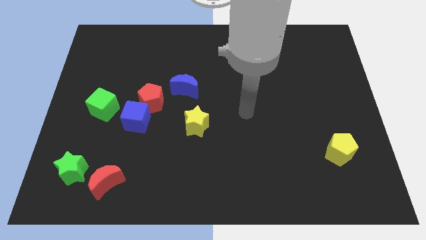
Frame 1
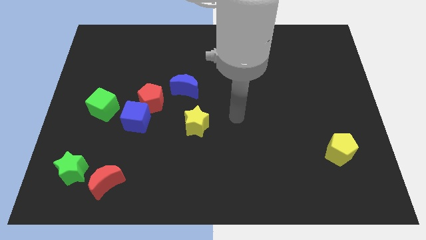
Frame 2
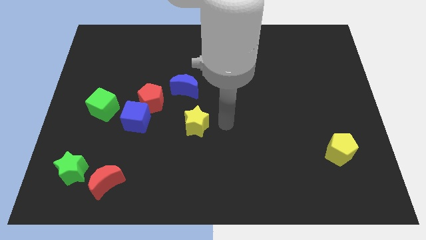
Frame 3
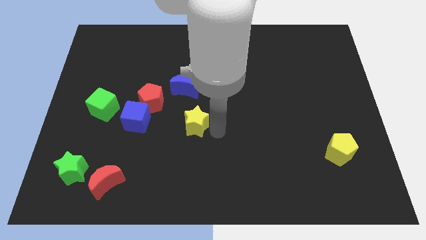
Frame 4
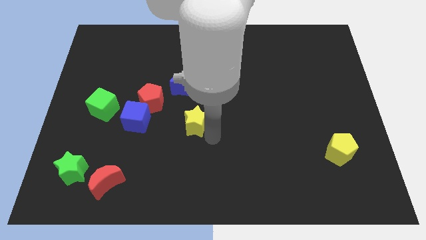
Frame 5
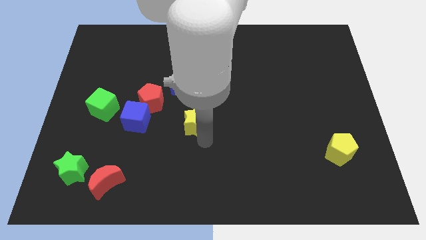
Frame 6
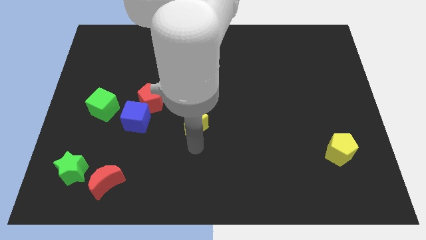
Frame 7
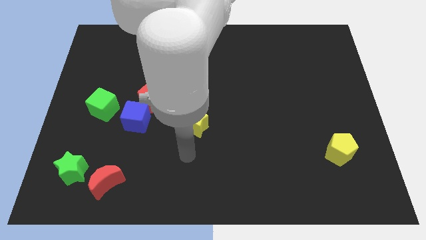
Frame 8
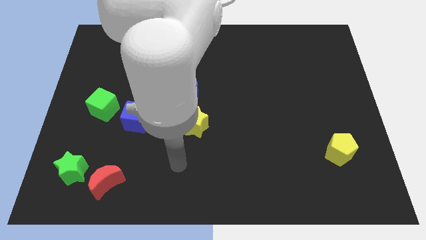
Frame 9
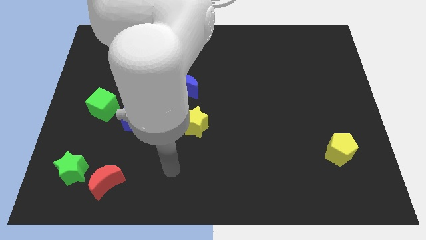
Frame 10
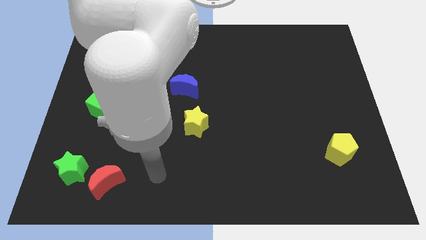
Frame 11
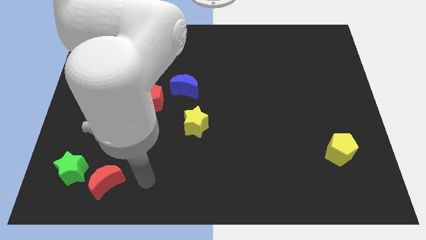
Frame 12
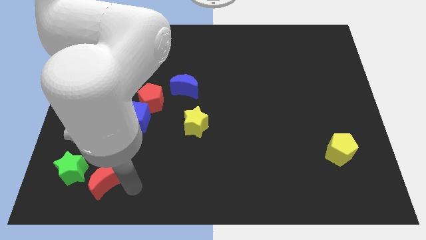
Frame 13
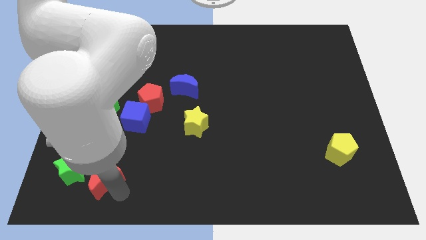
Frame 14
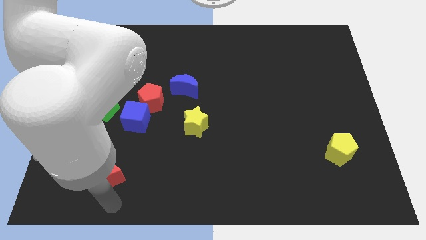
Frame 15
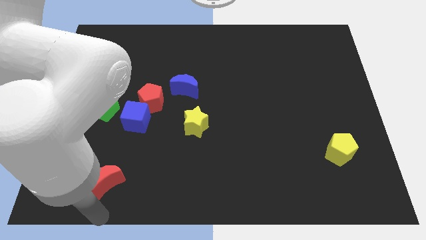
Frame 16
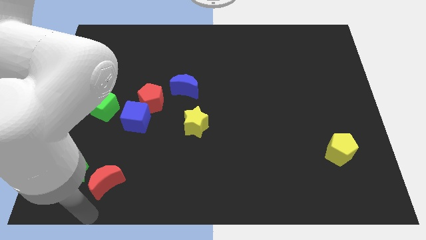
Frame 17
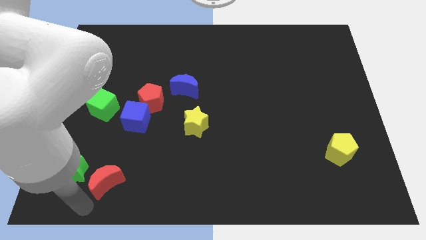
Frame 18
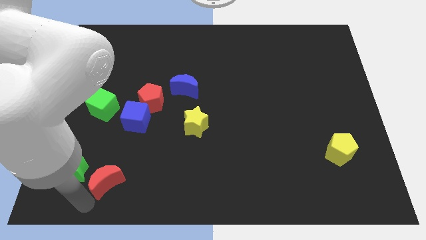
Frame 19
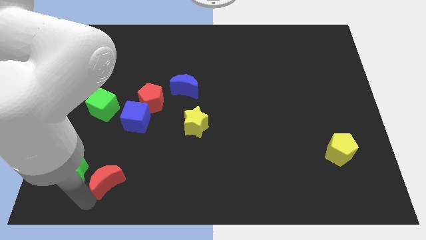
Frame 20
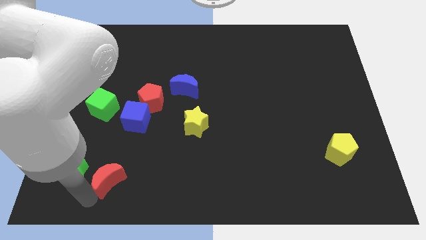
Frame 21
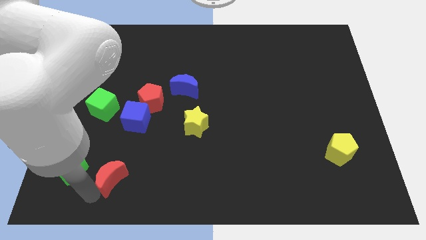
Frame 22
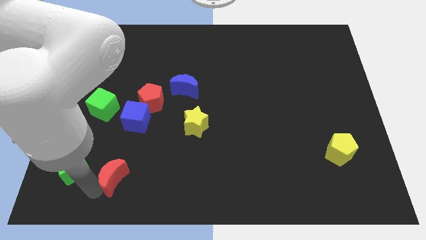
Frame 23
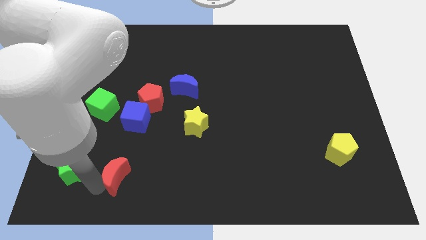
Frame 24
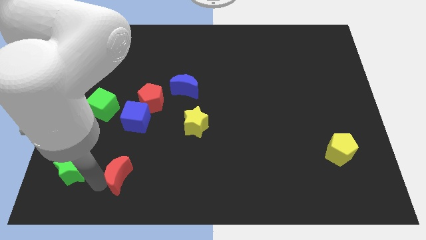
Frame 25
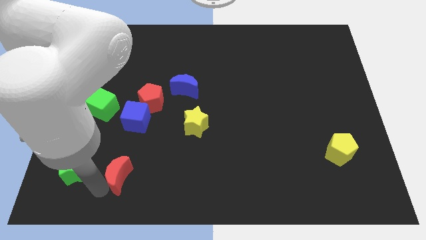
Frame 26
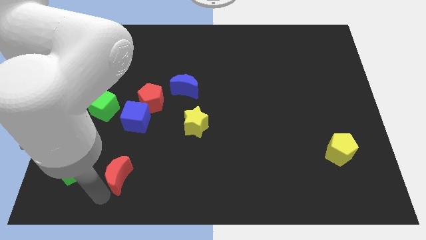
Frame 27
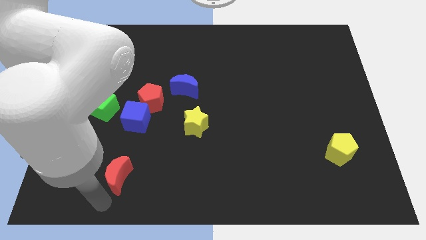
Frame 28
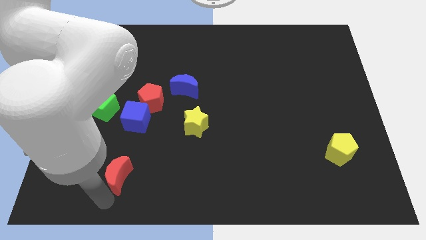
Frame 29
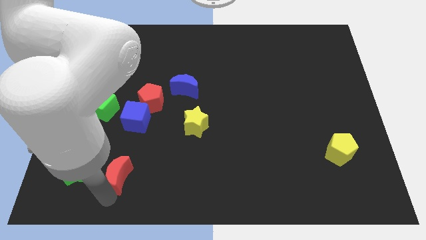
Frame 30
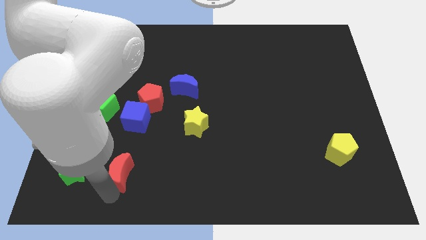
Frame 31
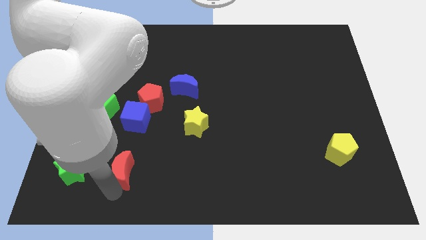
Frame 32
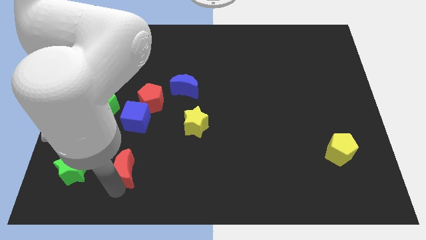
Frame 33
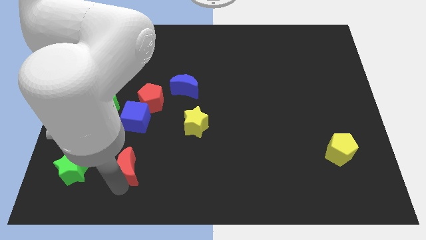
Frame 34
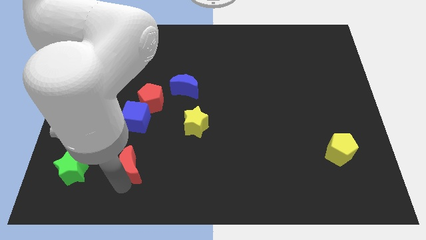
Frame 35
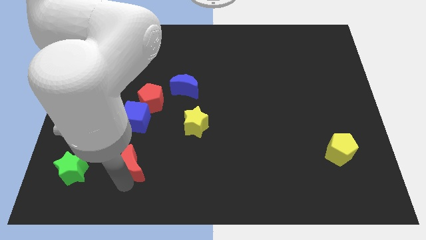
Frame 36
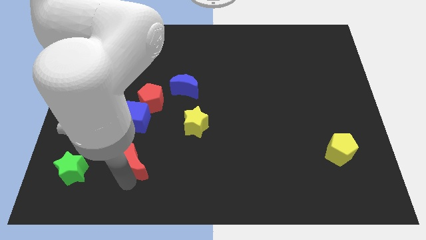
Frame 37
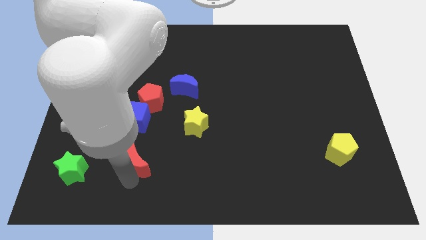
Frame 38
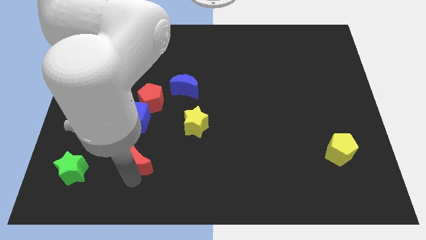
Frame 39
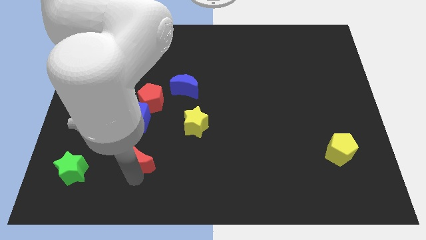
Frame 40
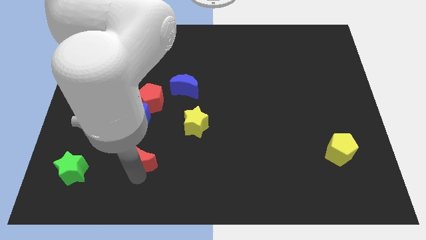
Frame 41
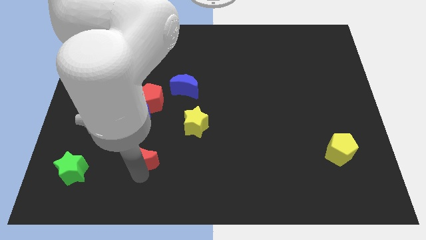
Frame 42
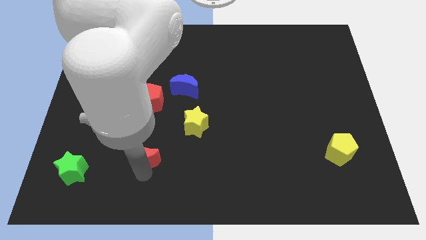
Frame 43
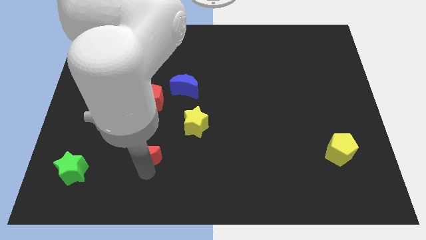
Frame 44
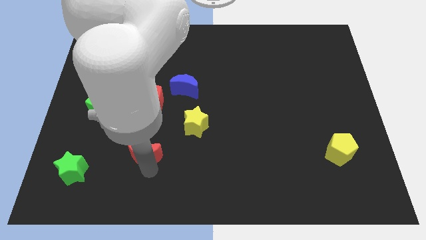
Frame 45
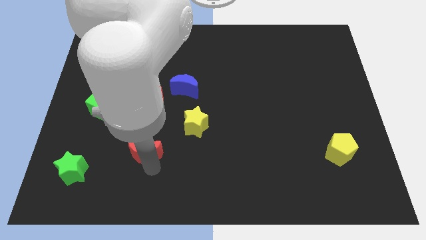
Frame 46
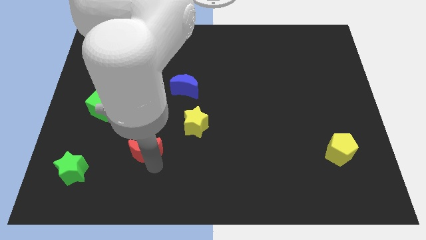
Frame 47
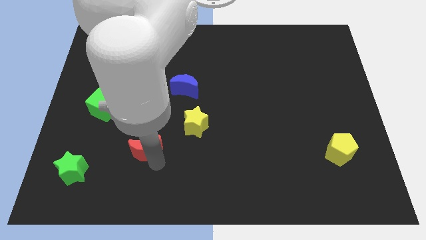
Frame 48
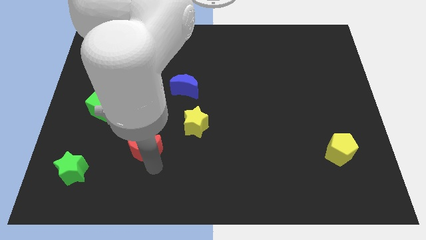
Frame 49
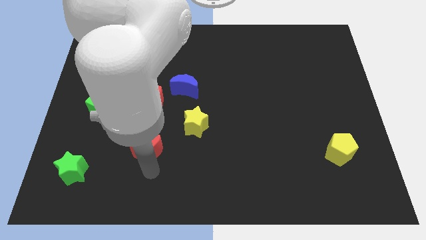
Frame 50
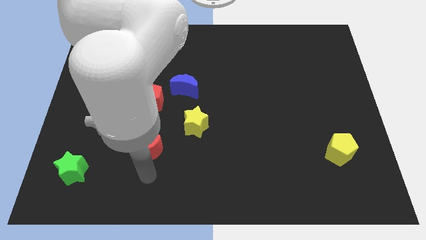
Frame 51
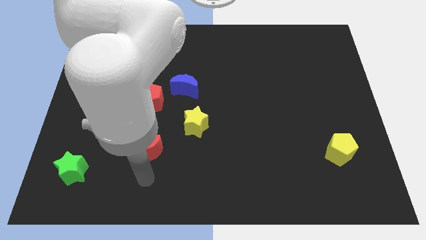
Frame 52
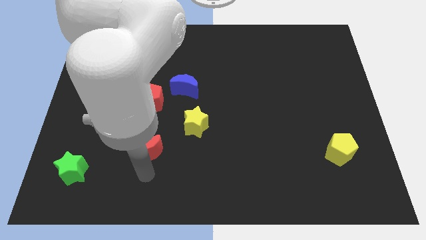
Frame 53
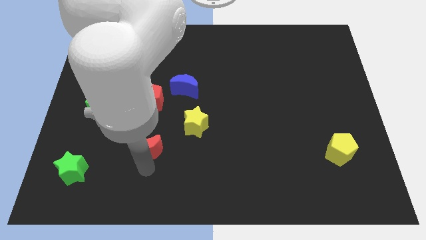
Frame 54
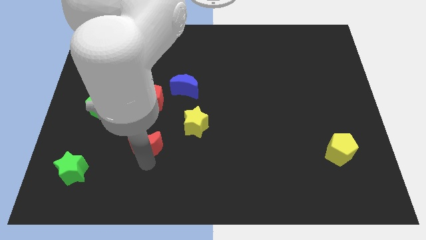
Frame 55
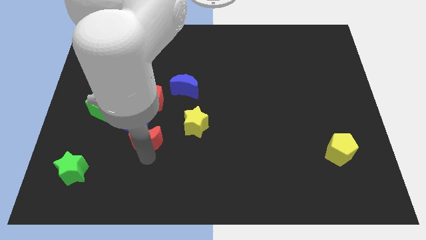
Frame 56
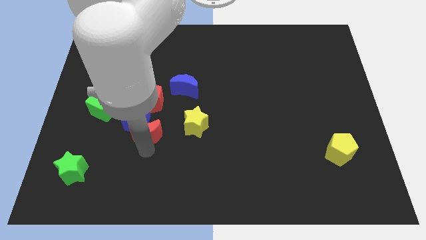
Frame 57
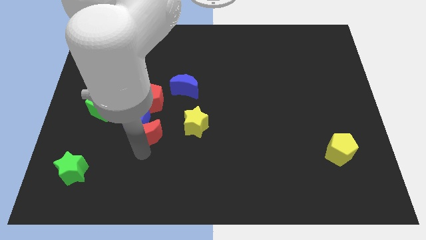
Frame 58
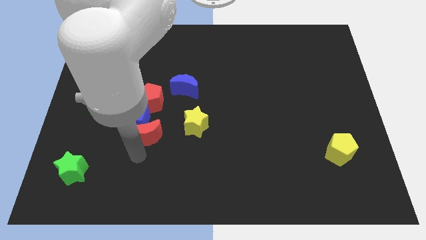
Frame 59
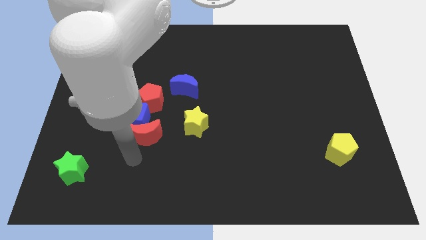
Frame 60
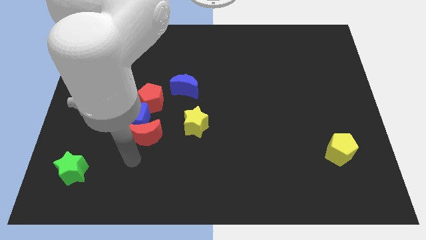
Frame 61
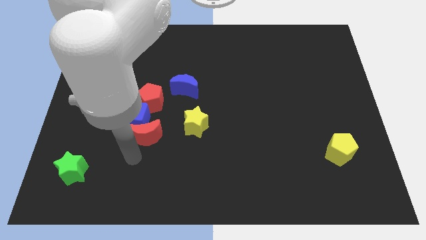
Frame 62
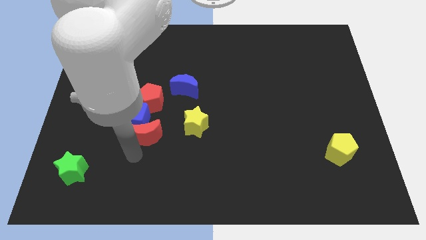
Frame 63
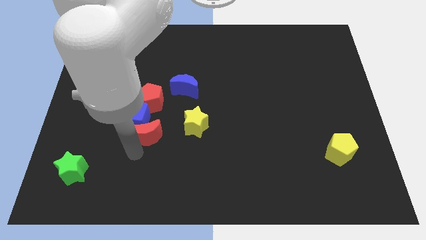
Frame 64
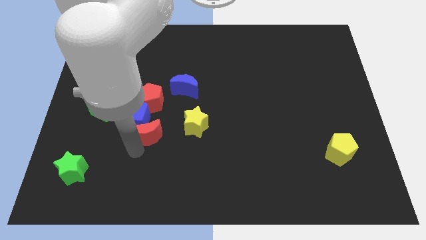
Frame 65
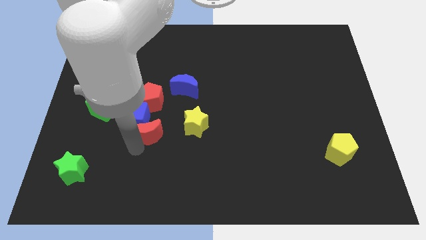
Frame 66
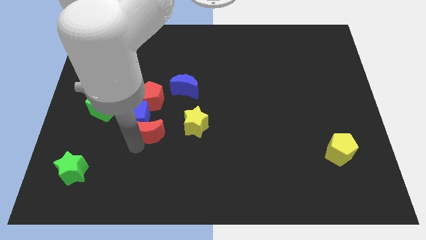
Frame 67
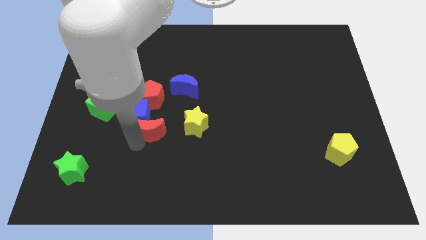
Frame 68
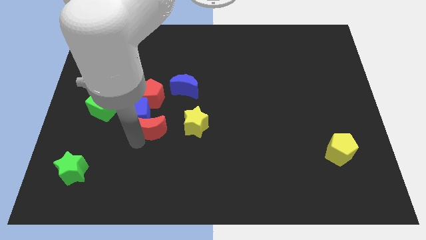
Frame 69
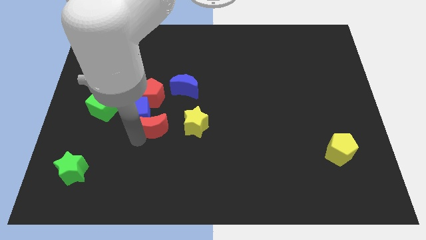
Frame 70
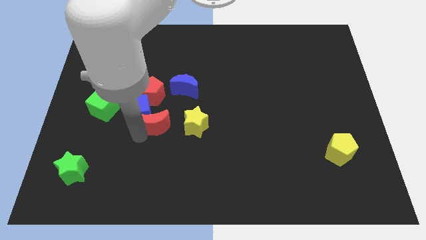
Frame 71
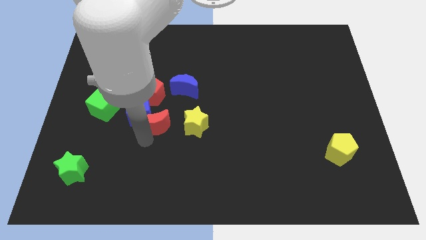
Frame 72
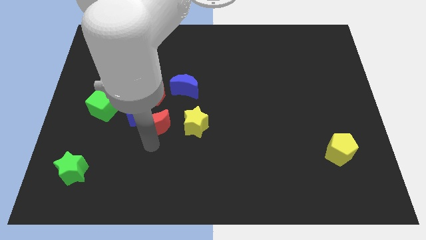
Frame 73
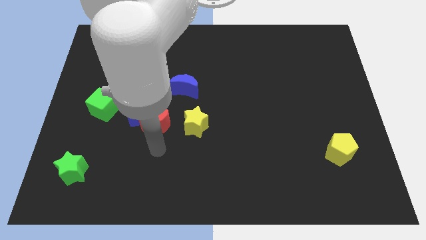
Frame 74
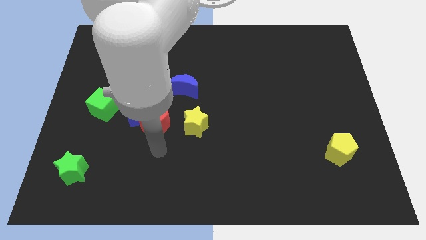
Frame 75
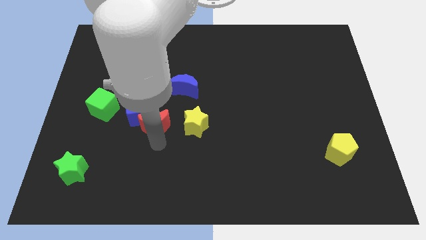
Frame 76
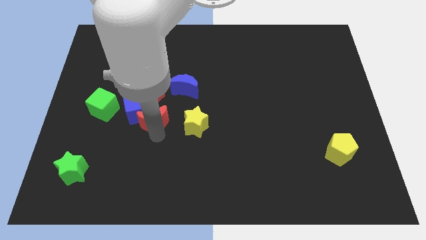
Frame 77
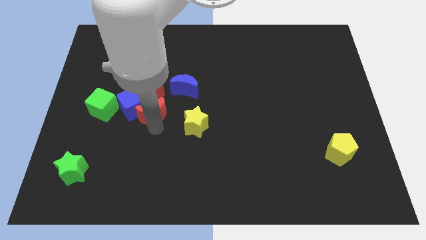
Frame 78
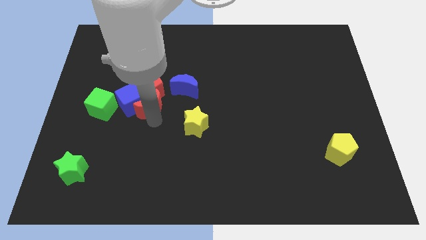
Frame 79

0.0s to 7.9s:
slide the red moon to the red pentagon
